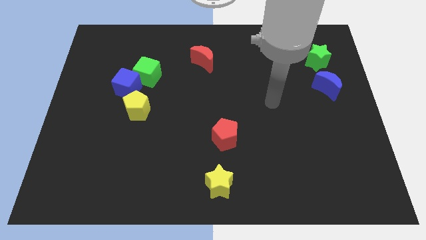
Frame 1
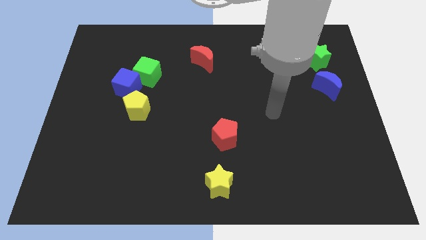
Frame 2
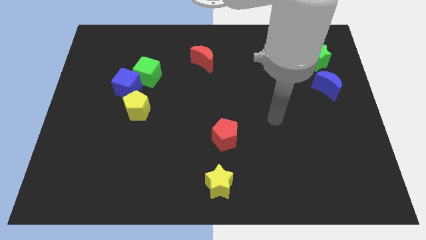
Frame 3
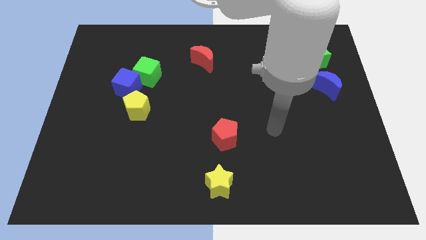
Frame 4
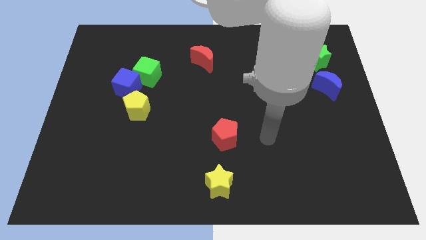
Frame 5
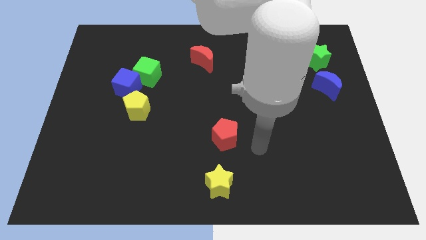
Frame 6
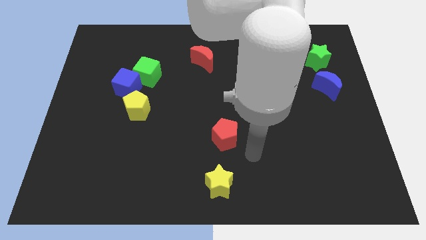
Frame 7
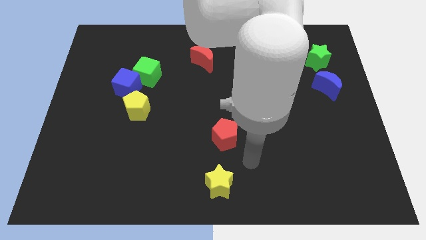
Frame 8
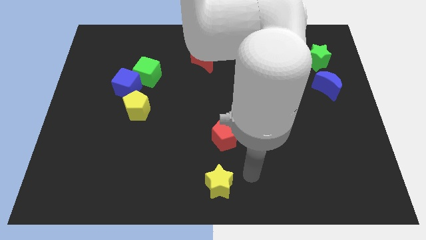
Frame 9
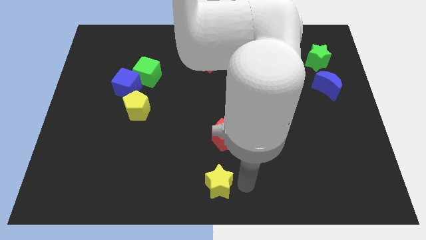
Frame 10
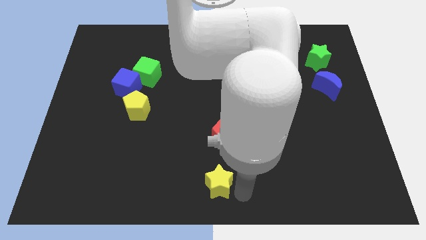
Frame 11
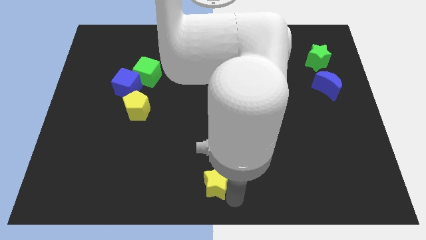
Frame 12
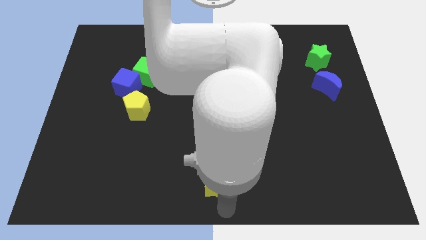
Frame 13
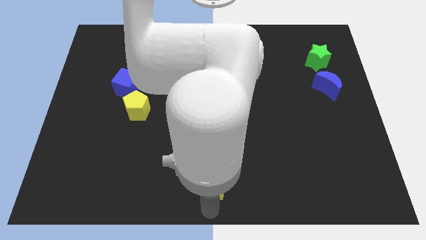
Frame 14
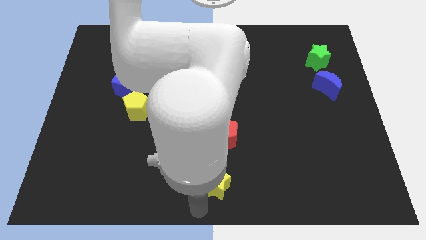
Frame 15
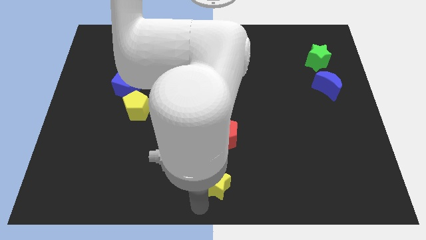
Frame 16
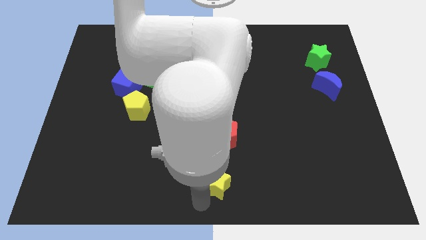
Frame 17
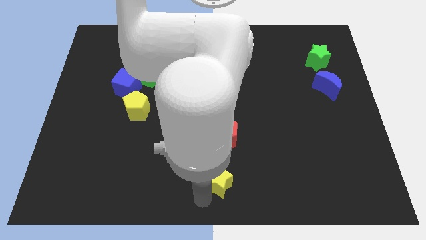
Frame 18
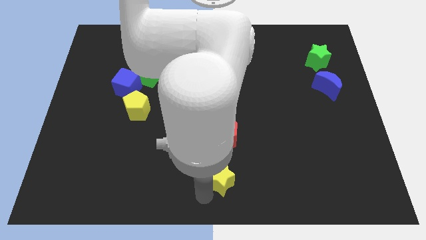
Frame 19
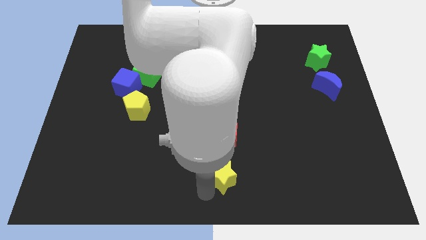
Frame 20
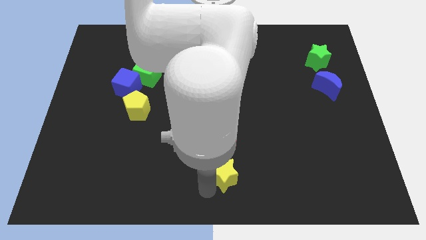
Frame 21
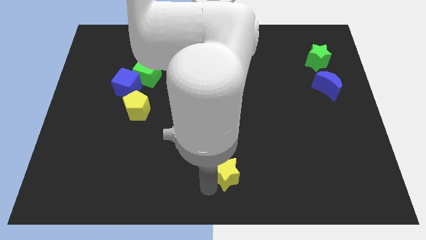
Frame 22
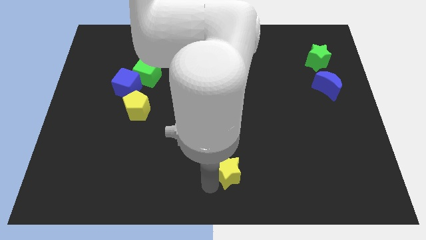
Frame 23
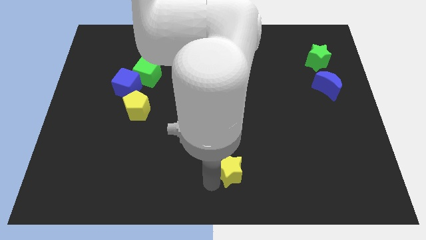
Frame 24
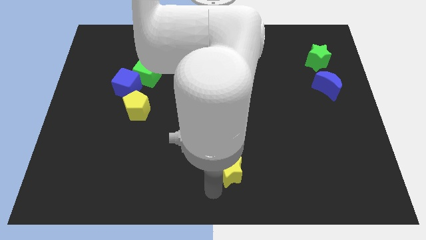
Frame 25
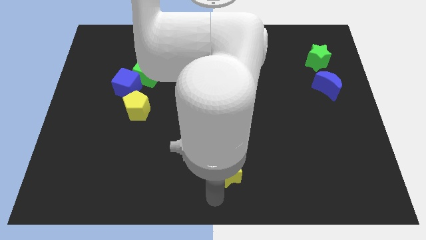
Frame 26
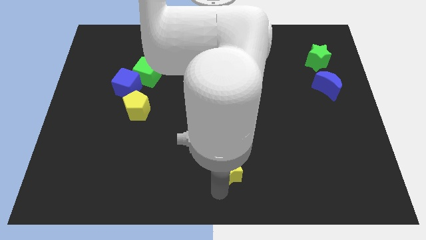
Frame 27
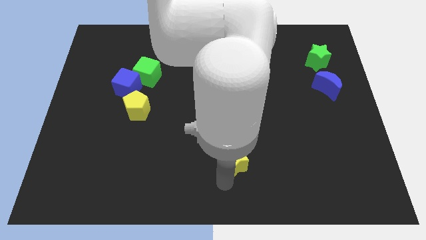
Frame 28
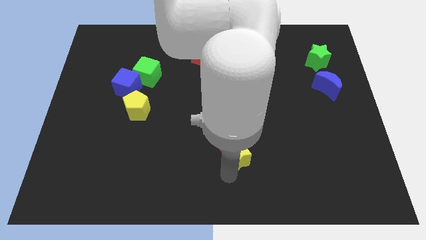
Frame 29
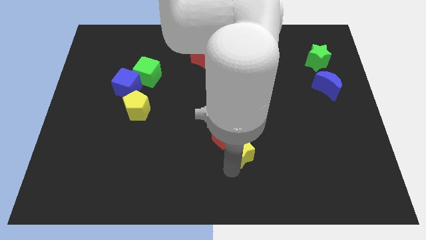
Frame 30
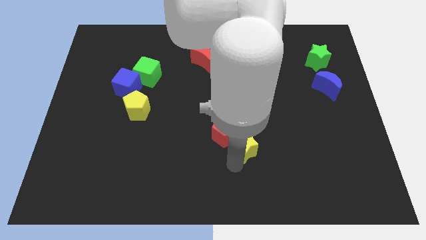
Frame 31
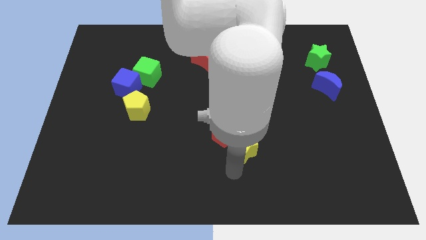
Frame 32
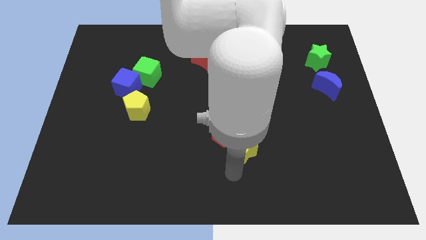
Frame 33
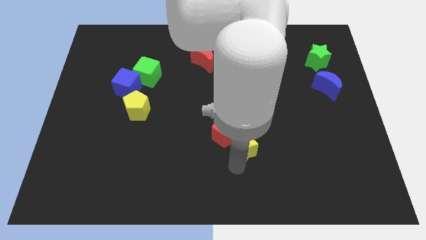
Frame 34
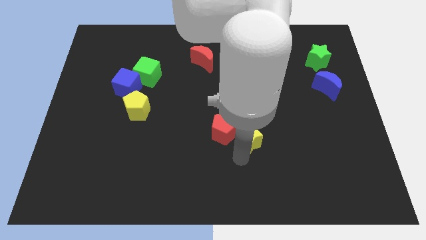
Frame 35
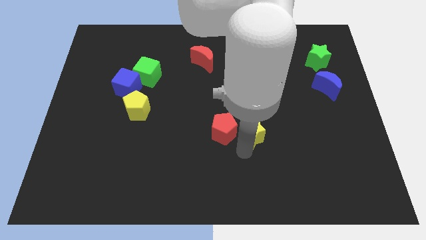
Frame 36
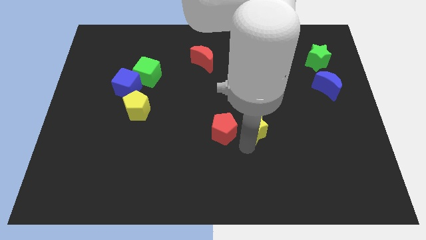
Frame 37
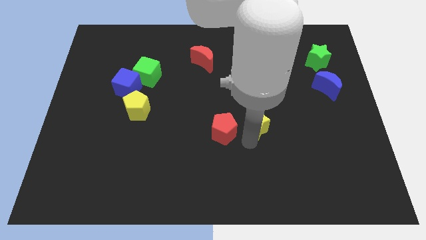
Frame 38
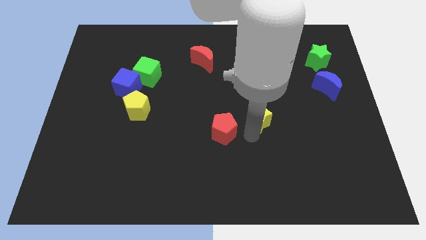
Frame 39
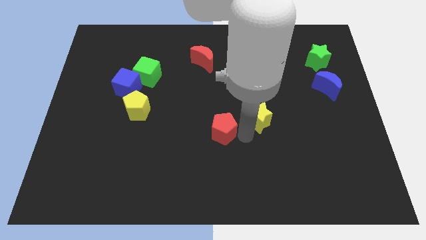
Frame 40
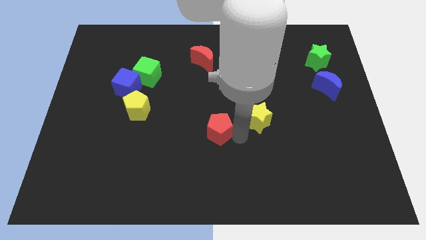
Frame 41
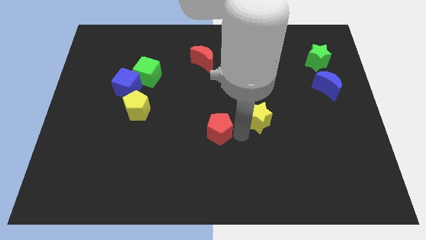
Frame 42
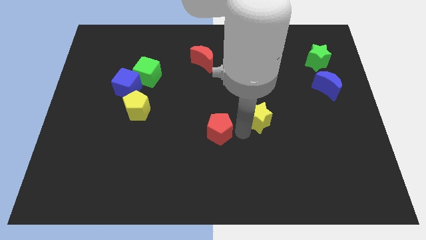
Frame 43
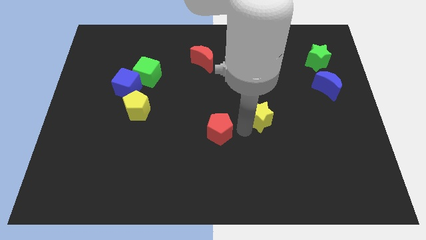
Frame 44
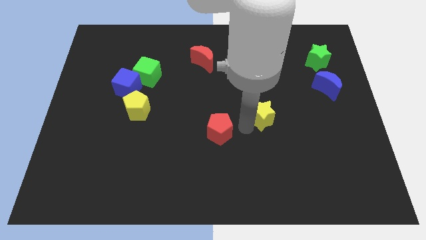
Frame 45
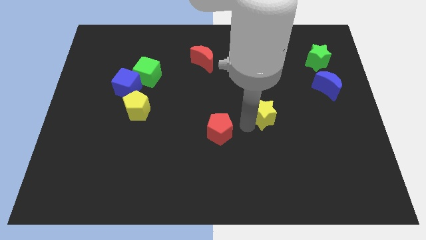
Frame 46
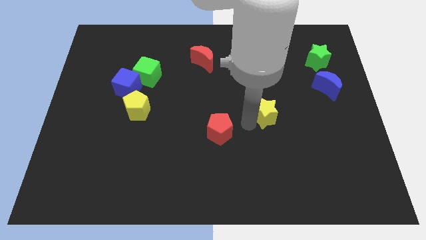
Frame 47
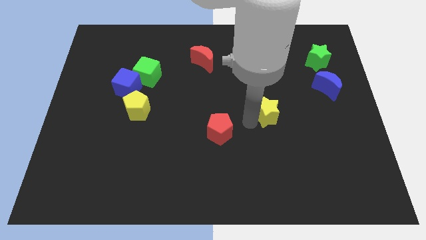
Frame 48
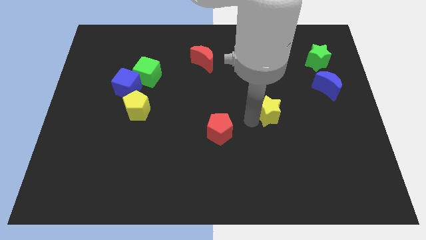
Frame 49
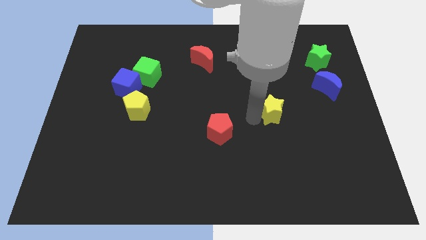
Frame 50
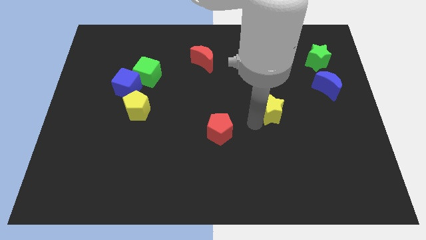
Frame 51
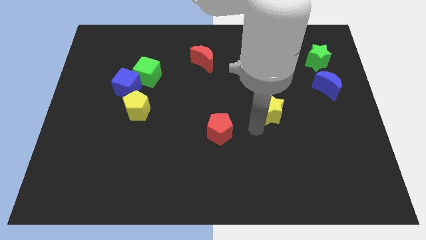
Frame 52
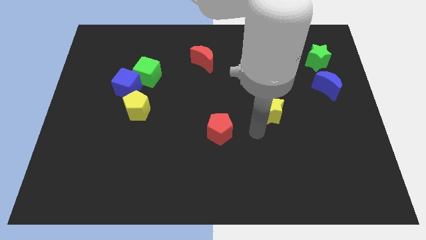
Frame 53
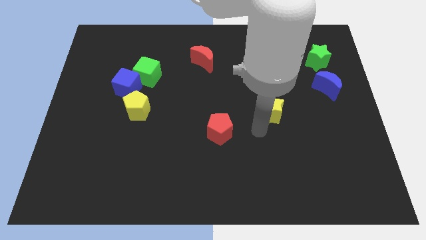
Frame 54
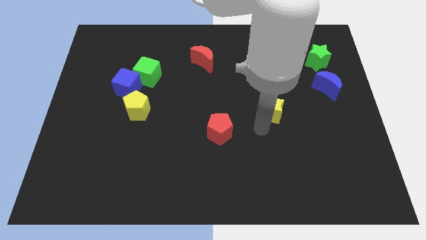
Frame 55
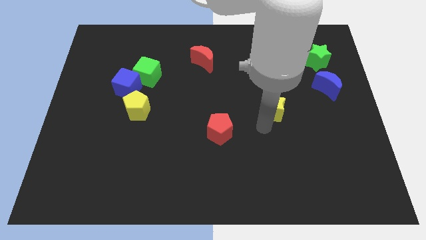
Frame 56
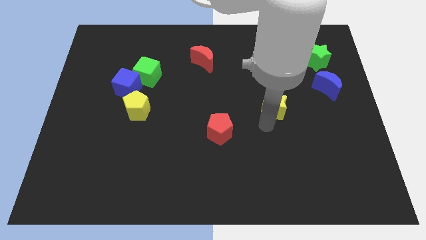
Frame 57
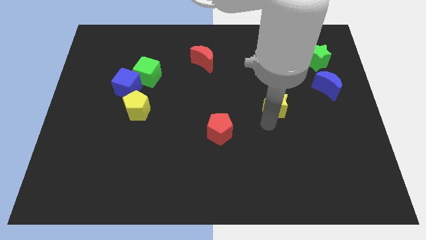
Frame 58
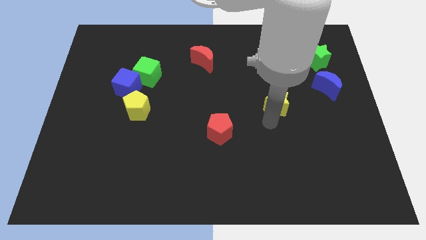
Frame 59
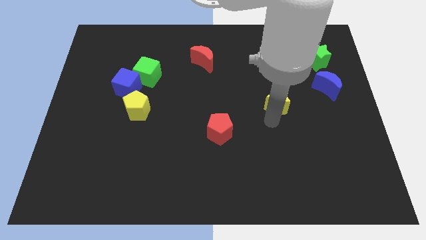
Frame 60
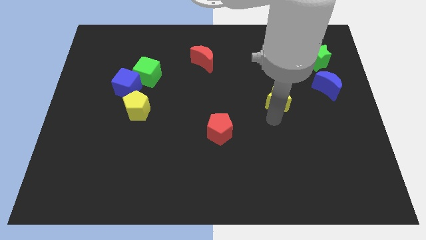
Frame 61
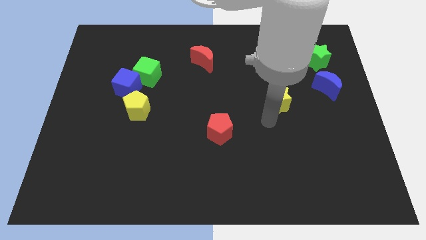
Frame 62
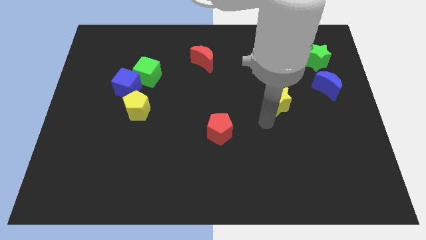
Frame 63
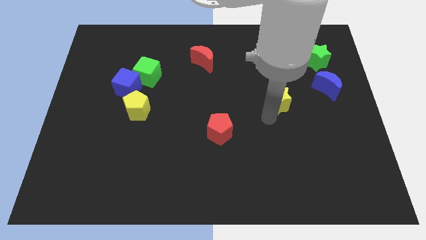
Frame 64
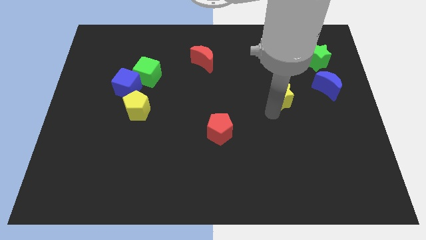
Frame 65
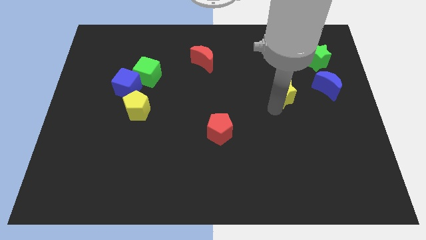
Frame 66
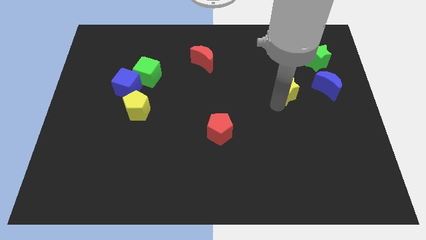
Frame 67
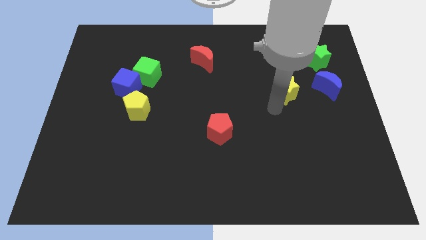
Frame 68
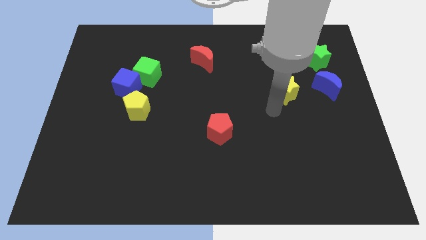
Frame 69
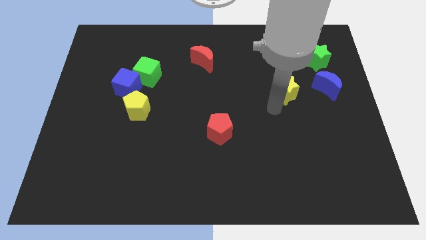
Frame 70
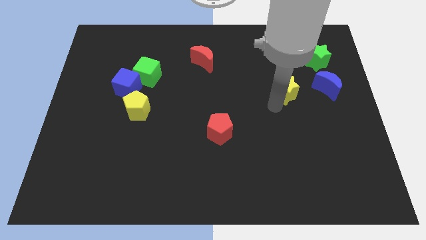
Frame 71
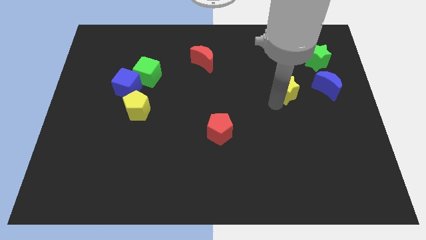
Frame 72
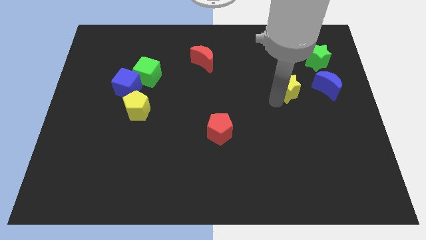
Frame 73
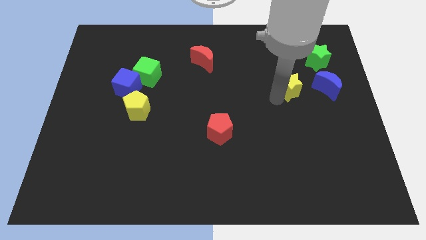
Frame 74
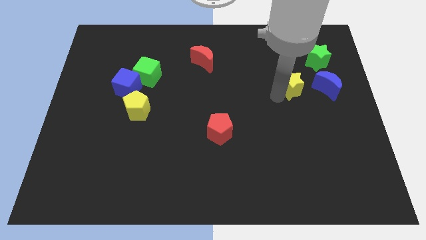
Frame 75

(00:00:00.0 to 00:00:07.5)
slide the yellow star diagonally down and to the left of the green star

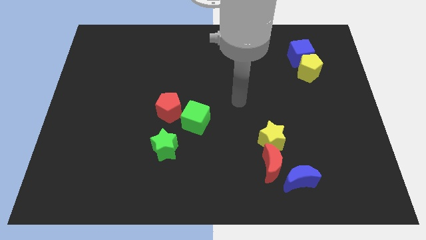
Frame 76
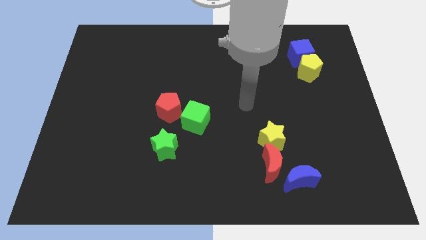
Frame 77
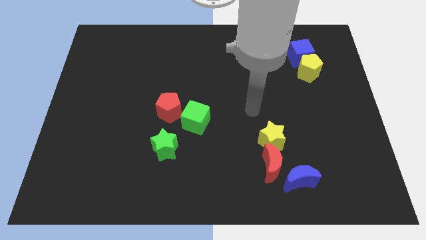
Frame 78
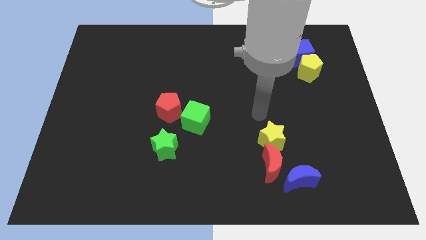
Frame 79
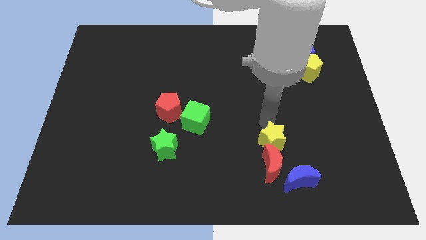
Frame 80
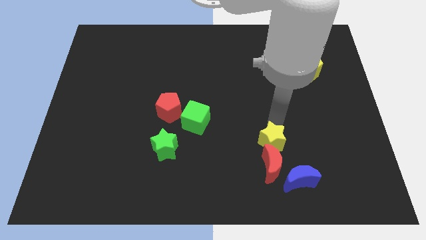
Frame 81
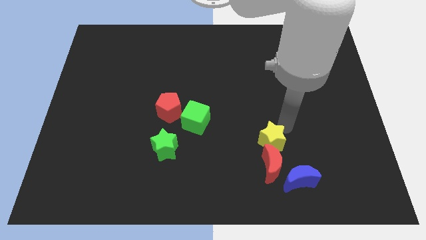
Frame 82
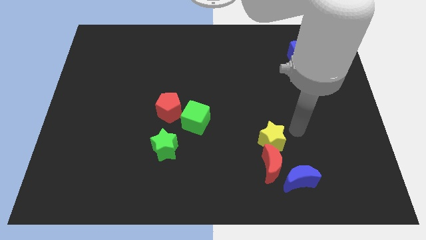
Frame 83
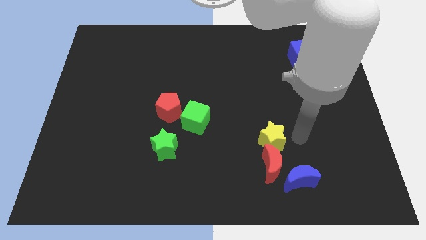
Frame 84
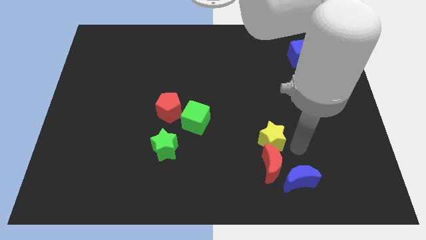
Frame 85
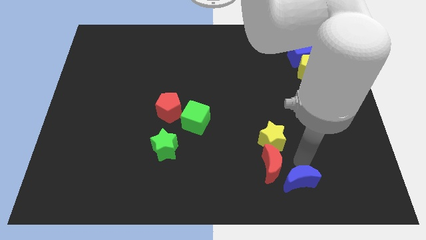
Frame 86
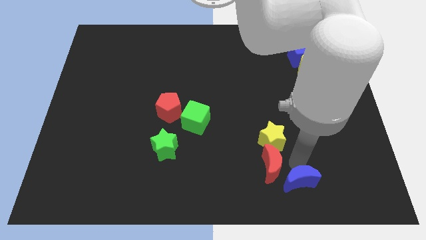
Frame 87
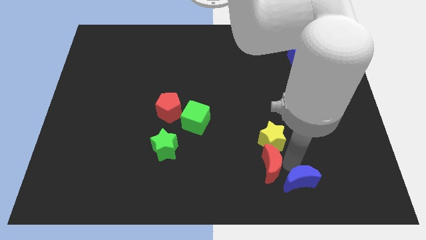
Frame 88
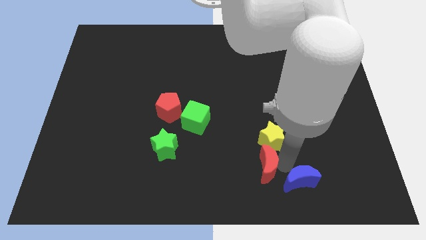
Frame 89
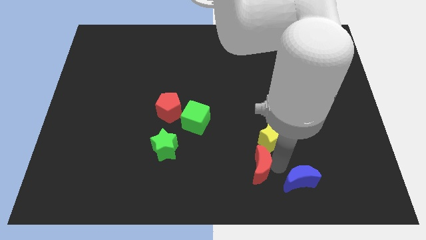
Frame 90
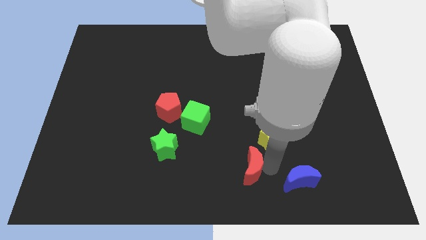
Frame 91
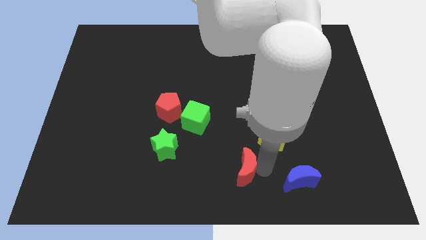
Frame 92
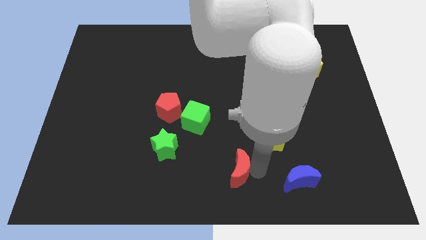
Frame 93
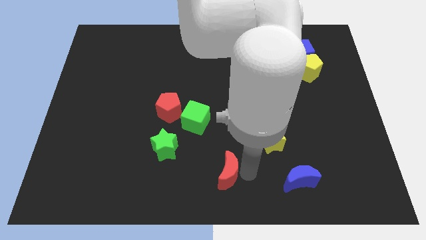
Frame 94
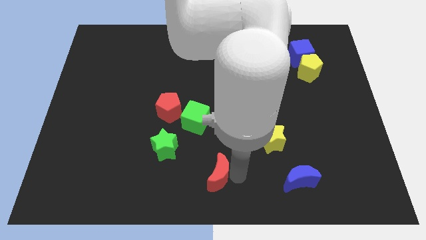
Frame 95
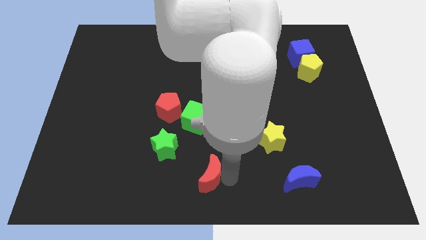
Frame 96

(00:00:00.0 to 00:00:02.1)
slide the red moon to the bottom of the green cube
